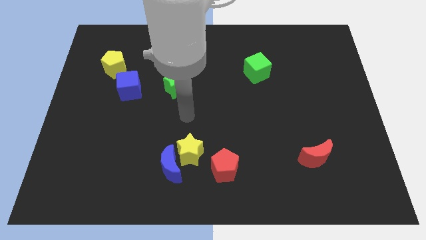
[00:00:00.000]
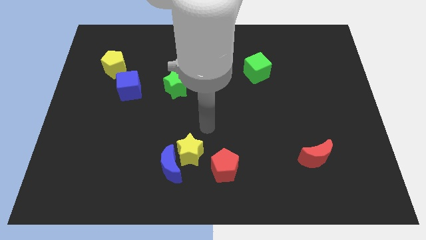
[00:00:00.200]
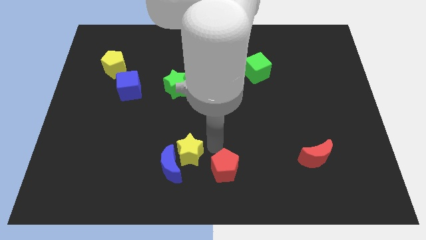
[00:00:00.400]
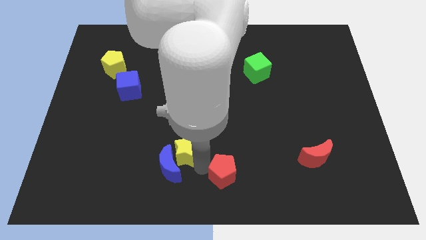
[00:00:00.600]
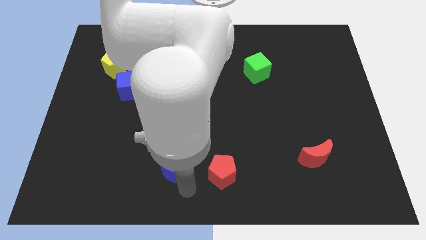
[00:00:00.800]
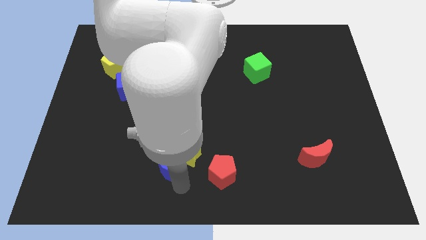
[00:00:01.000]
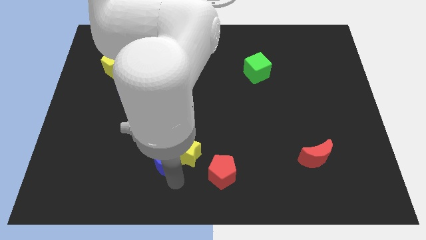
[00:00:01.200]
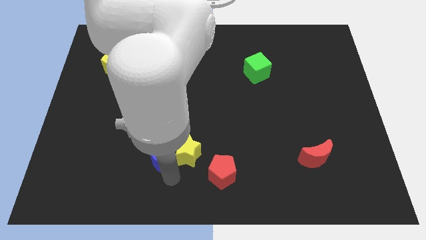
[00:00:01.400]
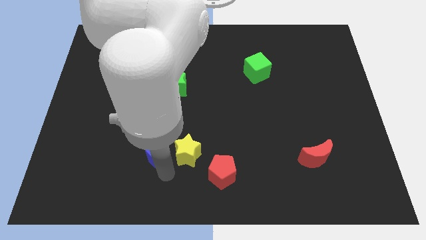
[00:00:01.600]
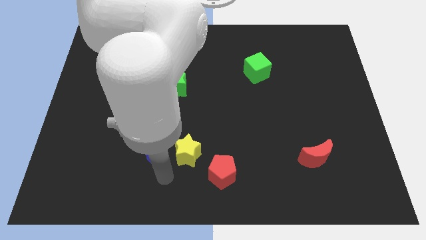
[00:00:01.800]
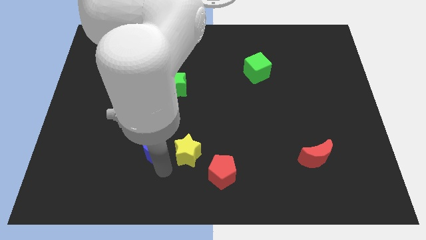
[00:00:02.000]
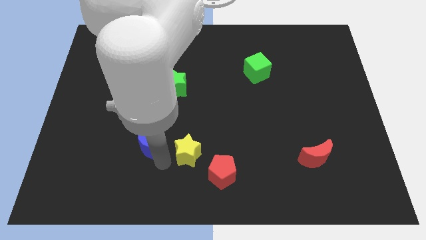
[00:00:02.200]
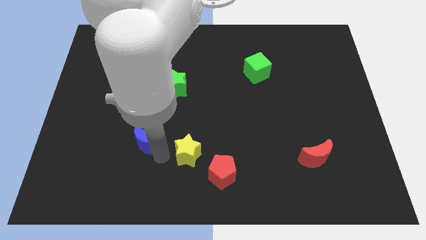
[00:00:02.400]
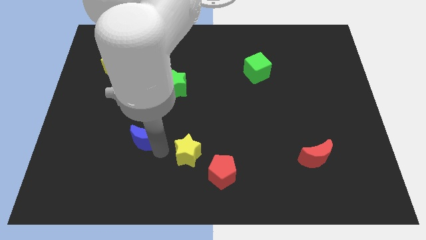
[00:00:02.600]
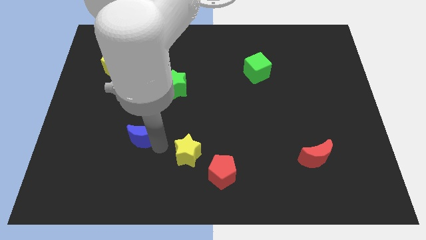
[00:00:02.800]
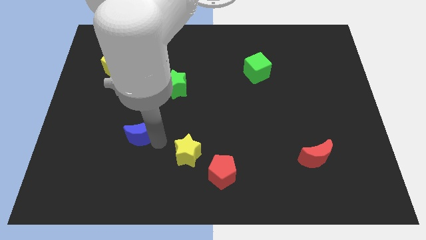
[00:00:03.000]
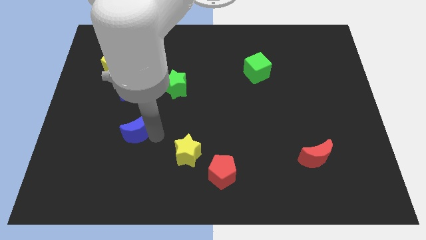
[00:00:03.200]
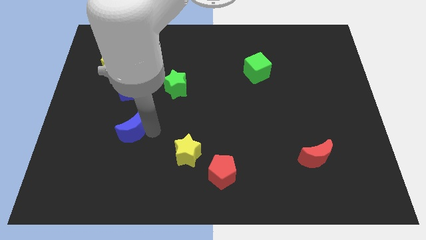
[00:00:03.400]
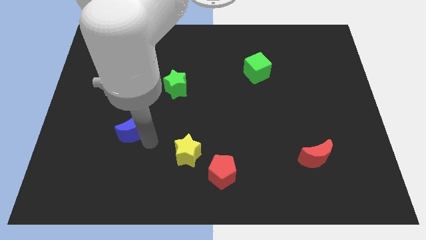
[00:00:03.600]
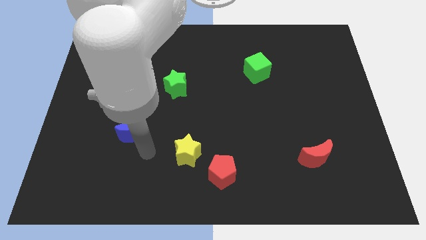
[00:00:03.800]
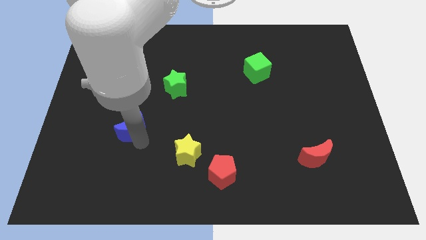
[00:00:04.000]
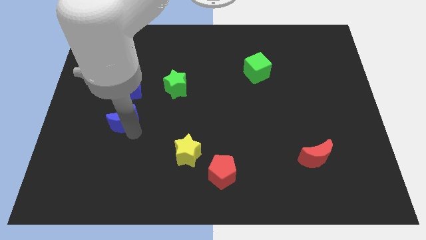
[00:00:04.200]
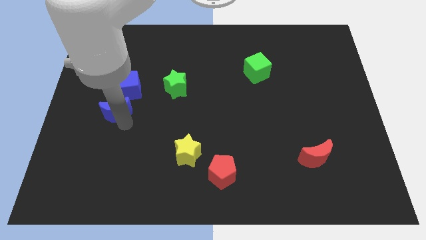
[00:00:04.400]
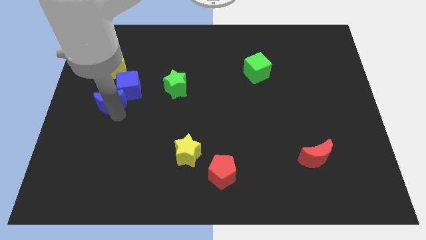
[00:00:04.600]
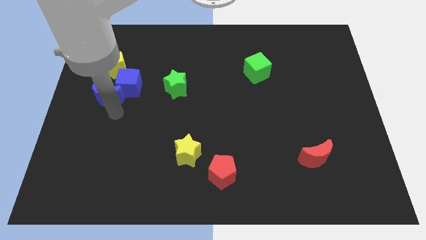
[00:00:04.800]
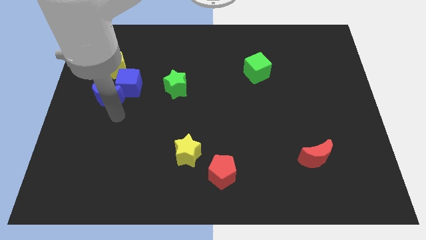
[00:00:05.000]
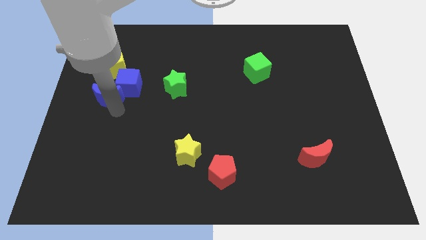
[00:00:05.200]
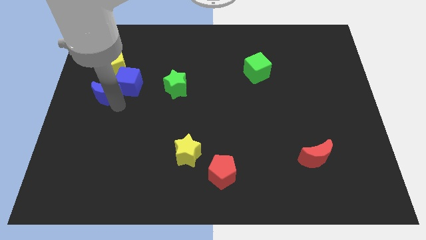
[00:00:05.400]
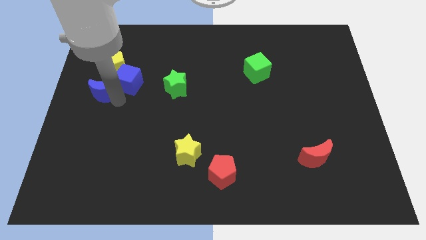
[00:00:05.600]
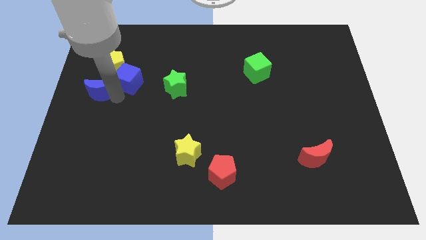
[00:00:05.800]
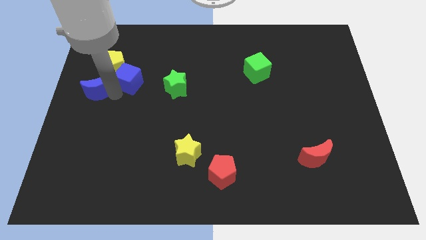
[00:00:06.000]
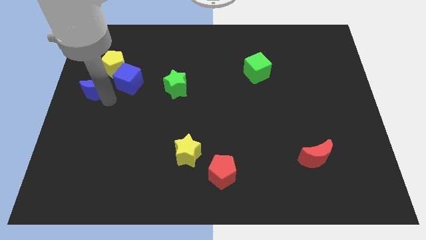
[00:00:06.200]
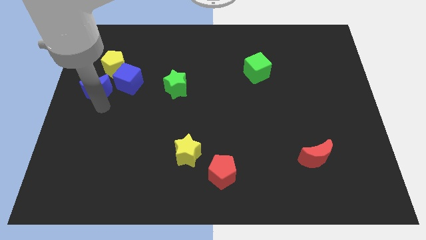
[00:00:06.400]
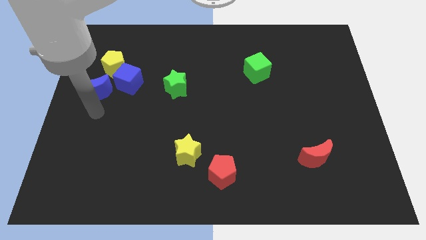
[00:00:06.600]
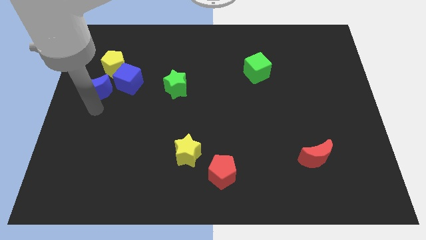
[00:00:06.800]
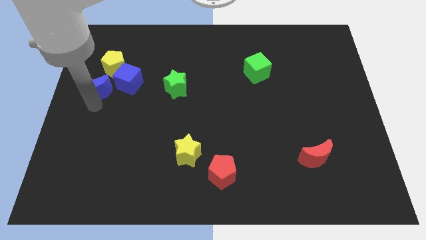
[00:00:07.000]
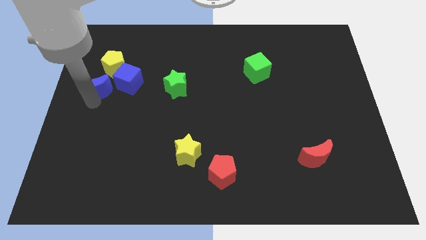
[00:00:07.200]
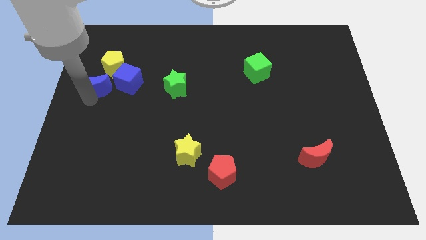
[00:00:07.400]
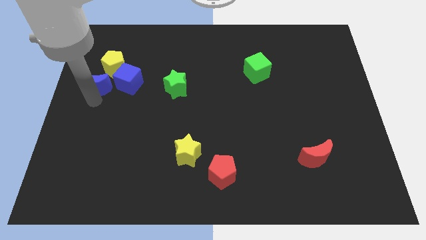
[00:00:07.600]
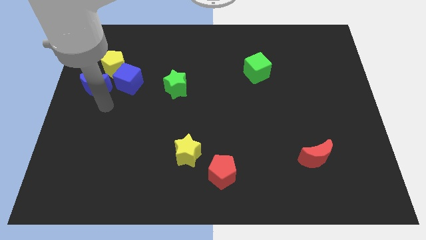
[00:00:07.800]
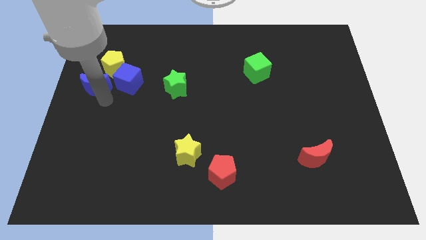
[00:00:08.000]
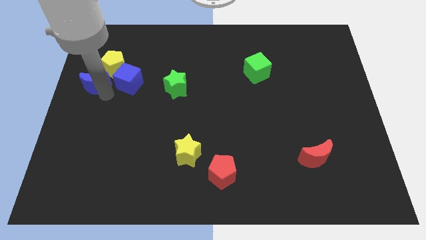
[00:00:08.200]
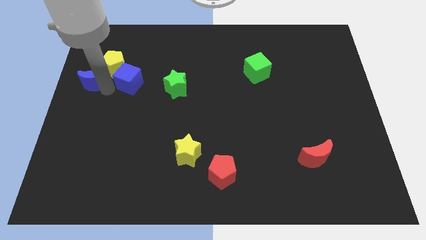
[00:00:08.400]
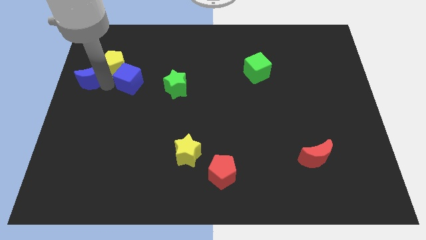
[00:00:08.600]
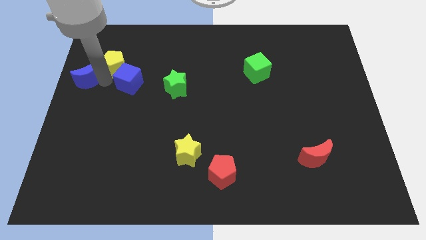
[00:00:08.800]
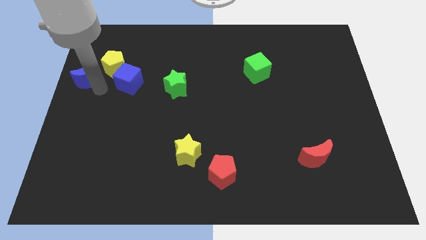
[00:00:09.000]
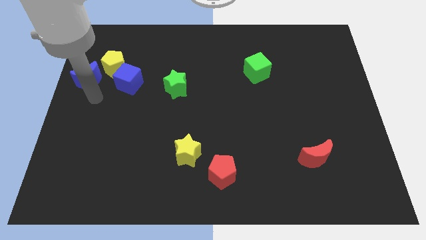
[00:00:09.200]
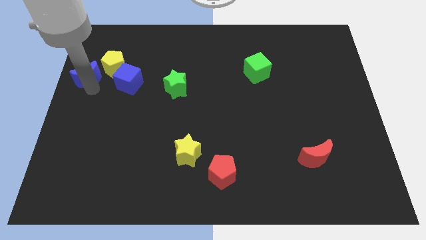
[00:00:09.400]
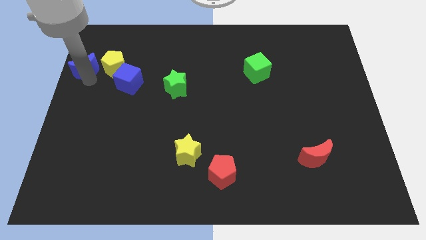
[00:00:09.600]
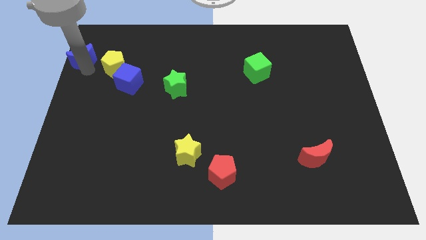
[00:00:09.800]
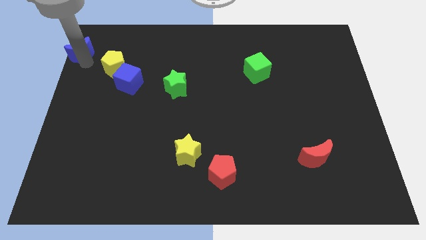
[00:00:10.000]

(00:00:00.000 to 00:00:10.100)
push the blue moon to the top left

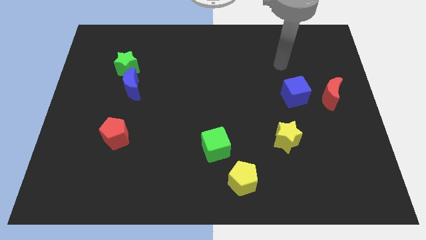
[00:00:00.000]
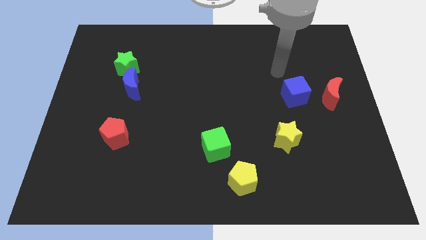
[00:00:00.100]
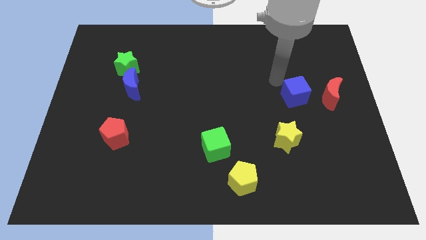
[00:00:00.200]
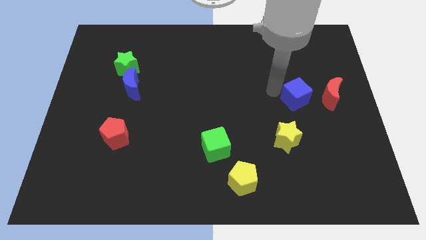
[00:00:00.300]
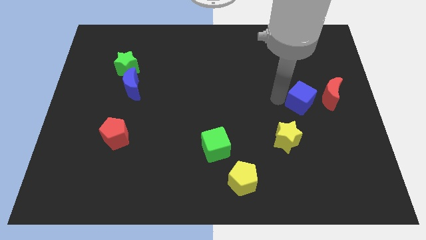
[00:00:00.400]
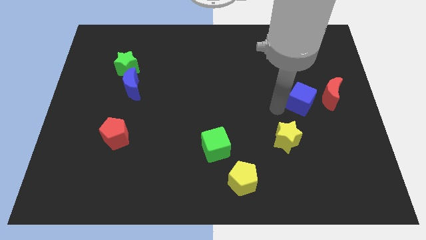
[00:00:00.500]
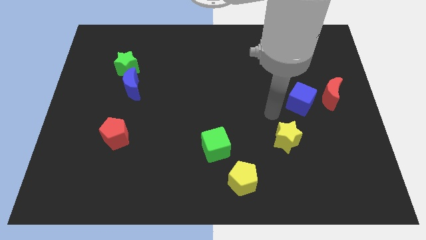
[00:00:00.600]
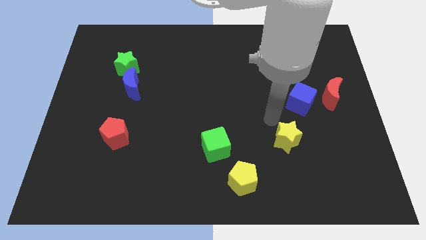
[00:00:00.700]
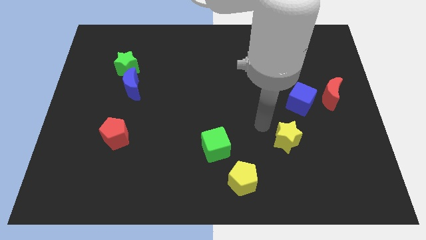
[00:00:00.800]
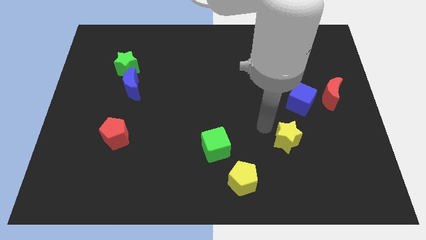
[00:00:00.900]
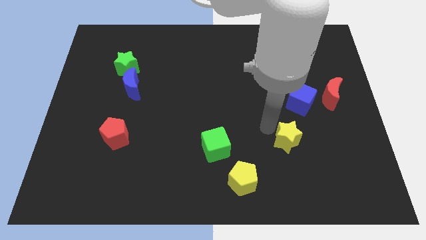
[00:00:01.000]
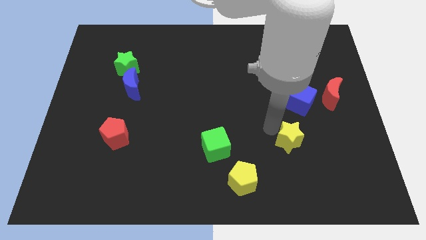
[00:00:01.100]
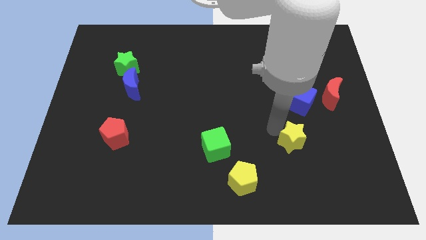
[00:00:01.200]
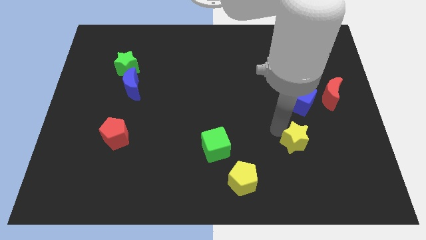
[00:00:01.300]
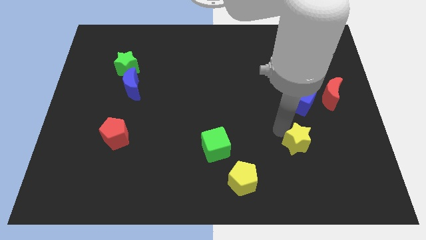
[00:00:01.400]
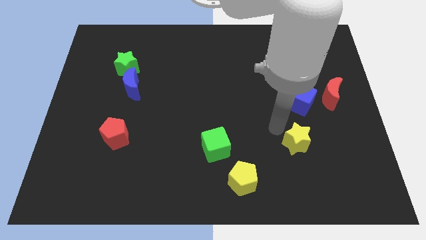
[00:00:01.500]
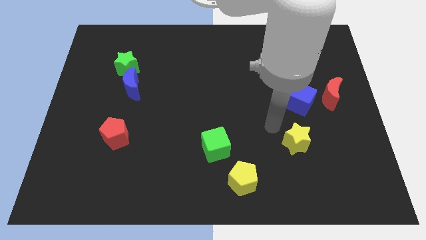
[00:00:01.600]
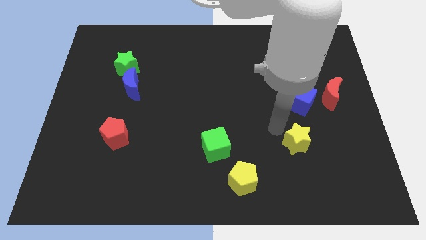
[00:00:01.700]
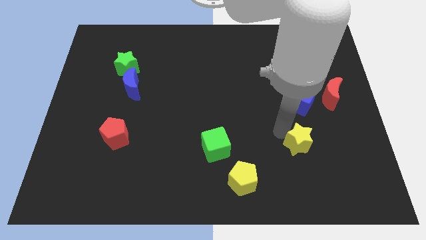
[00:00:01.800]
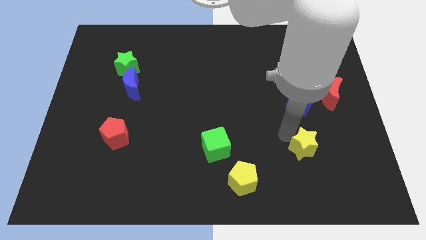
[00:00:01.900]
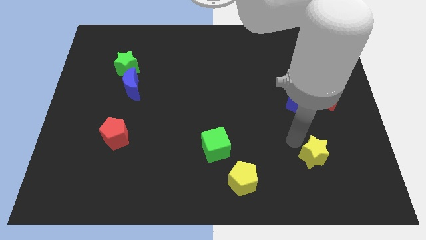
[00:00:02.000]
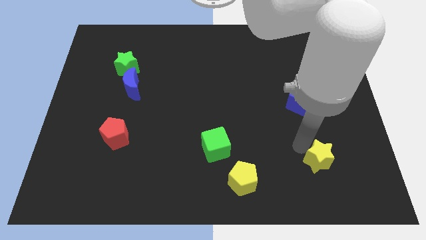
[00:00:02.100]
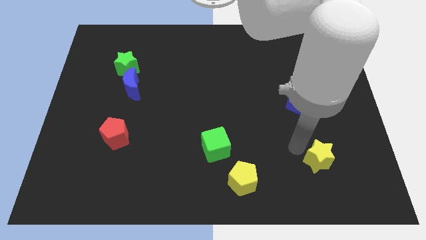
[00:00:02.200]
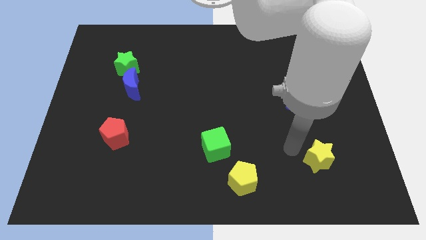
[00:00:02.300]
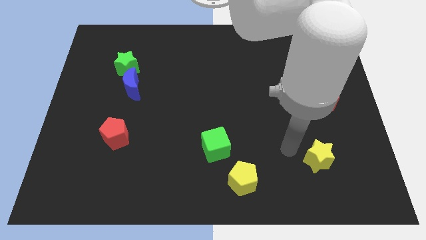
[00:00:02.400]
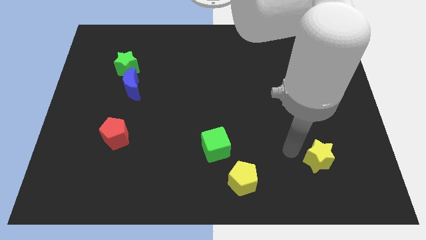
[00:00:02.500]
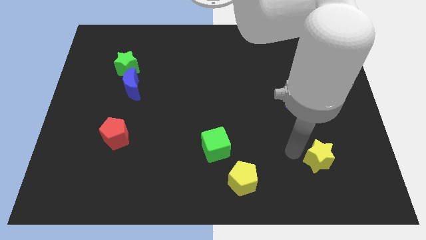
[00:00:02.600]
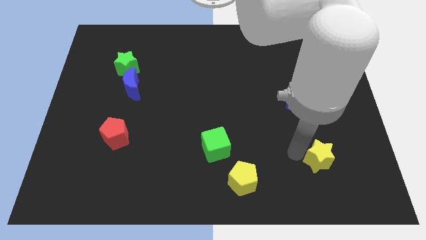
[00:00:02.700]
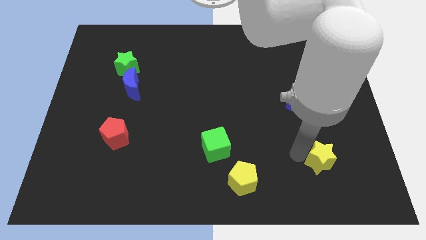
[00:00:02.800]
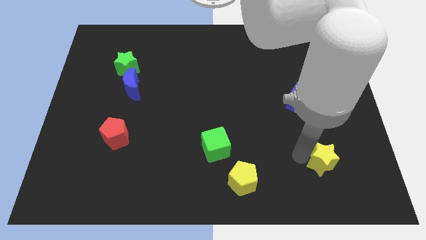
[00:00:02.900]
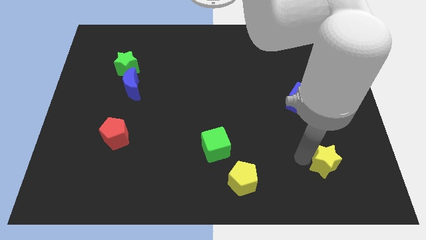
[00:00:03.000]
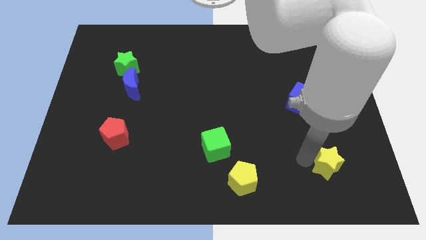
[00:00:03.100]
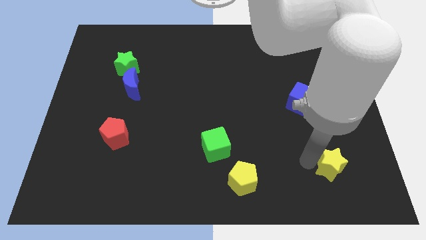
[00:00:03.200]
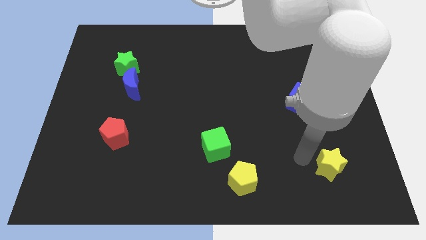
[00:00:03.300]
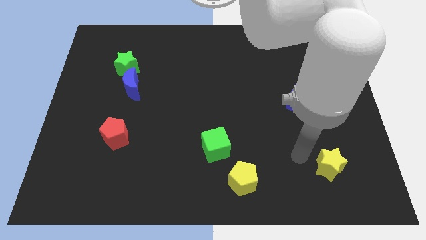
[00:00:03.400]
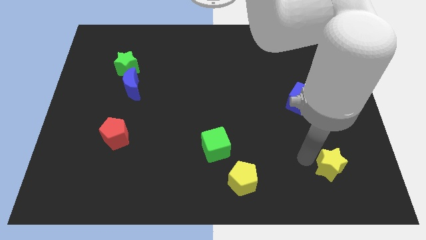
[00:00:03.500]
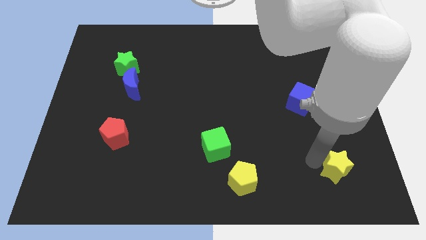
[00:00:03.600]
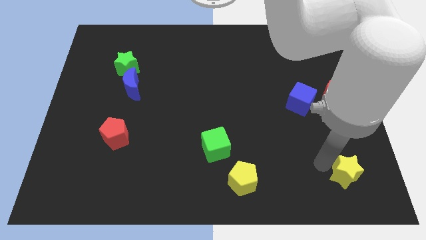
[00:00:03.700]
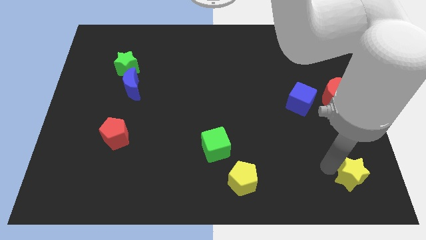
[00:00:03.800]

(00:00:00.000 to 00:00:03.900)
slide the yellow star to the lower right corner
